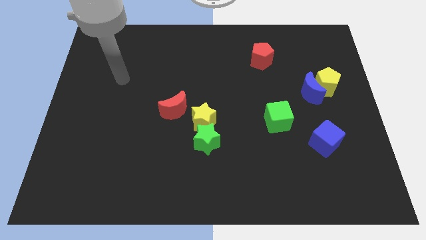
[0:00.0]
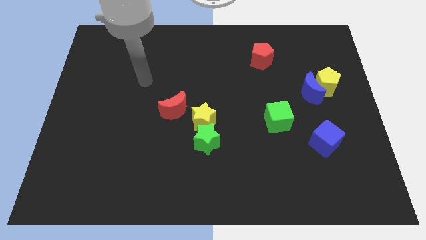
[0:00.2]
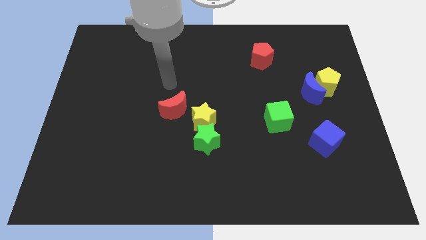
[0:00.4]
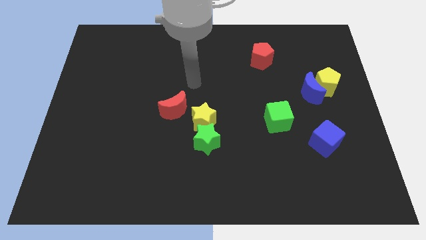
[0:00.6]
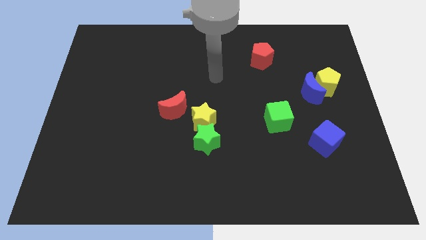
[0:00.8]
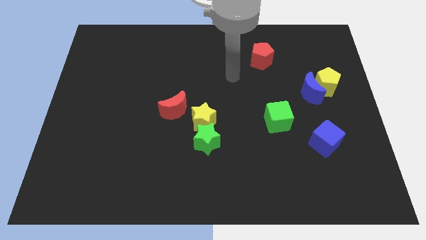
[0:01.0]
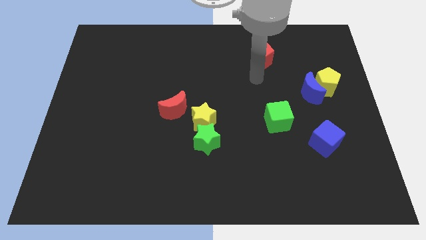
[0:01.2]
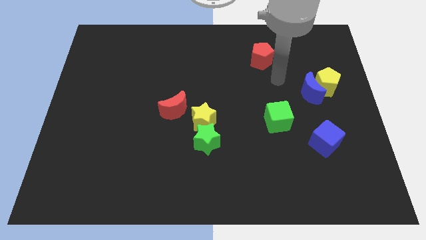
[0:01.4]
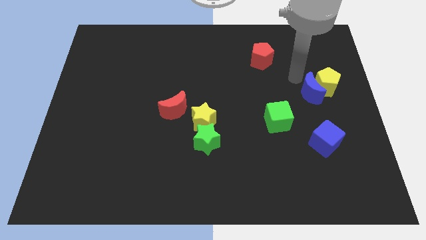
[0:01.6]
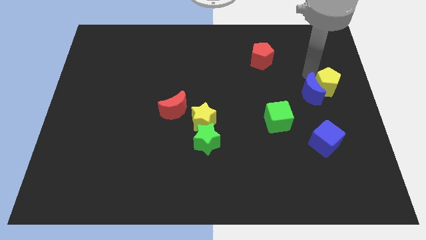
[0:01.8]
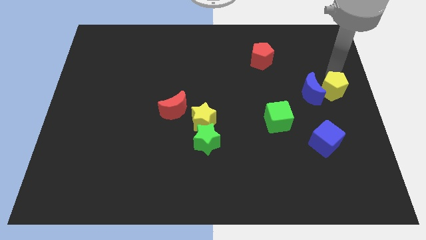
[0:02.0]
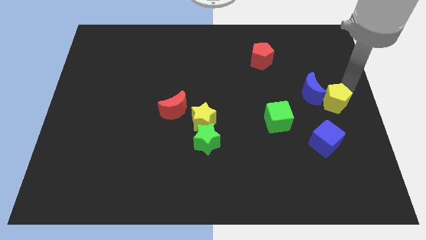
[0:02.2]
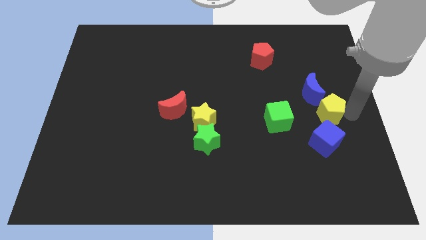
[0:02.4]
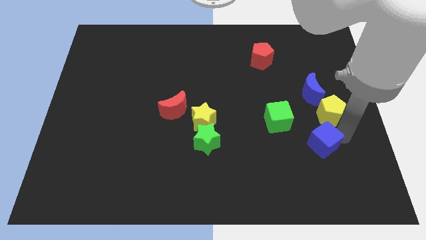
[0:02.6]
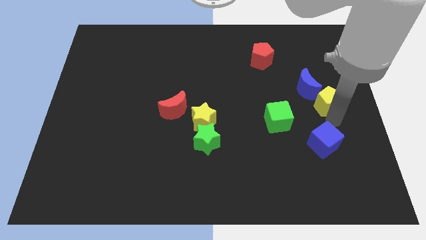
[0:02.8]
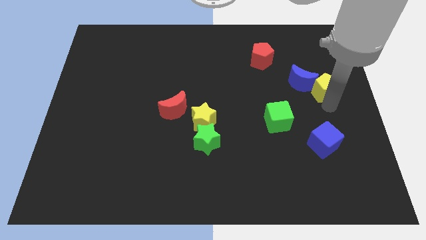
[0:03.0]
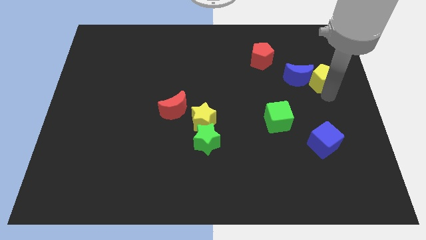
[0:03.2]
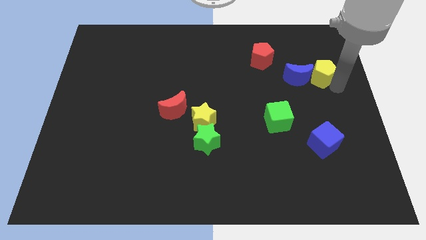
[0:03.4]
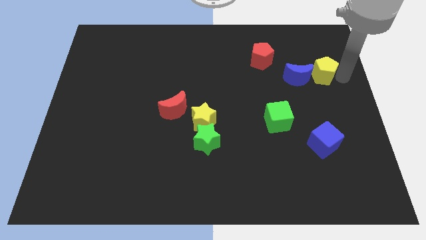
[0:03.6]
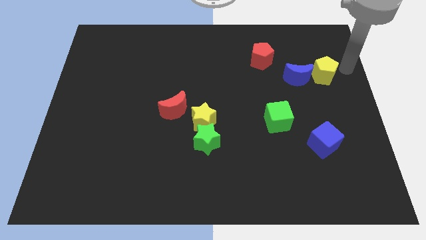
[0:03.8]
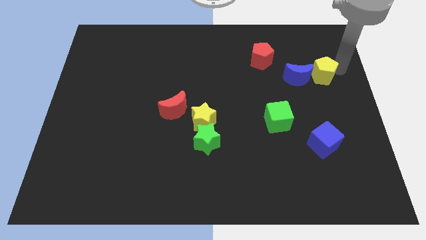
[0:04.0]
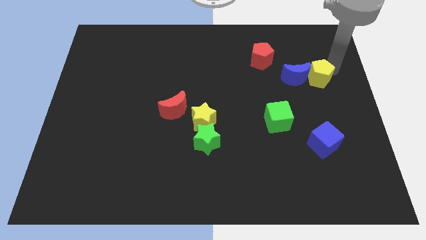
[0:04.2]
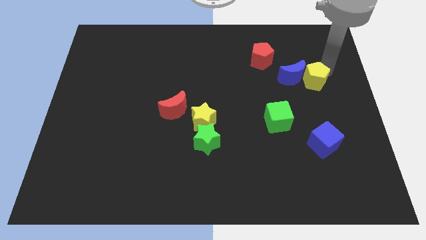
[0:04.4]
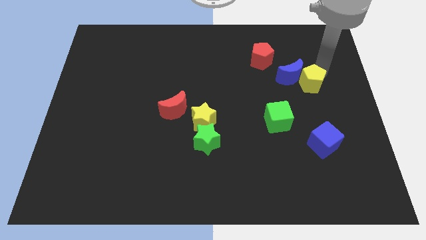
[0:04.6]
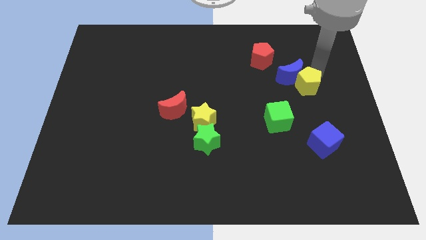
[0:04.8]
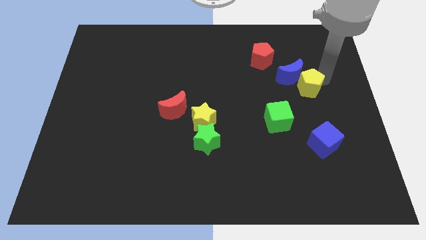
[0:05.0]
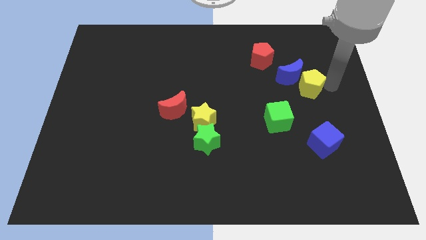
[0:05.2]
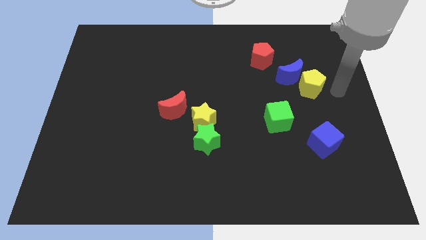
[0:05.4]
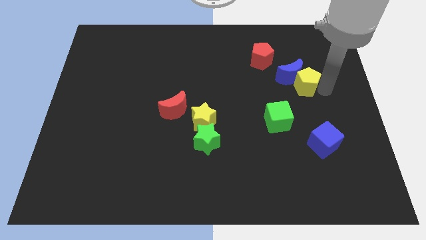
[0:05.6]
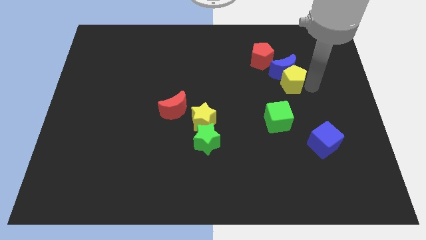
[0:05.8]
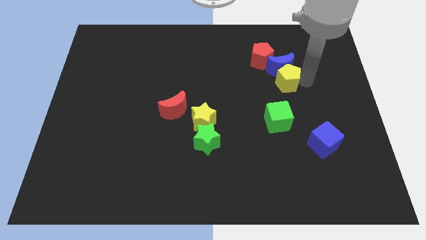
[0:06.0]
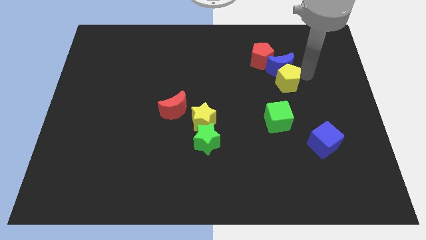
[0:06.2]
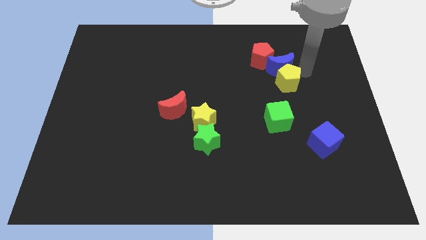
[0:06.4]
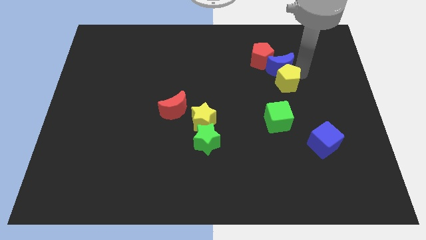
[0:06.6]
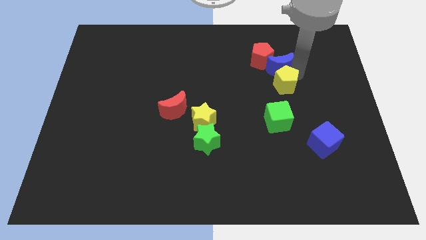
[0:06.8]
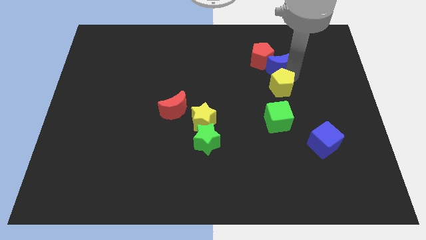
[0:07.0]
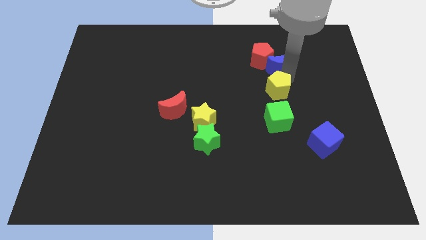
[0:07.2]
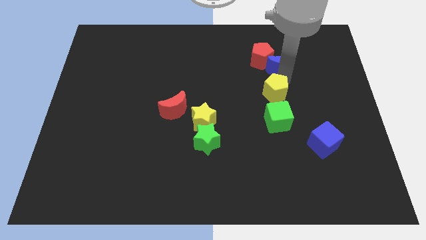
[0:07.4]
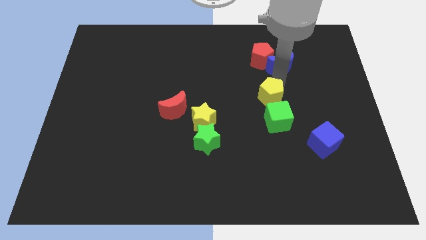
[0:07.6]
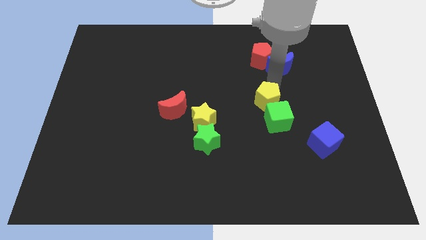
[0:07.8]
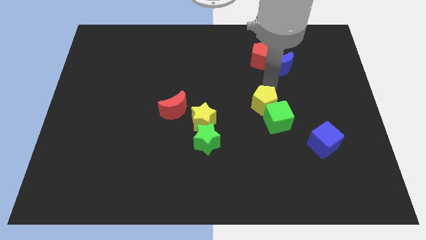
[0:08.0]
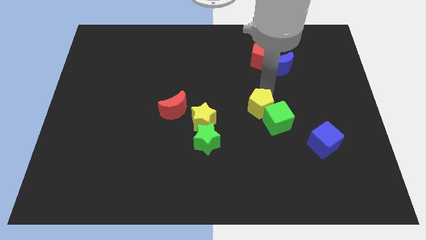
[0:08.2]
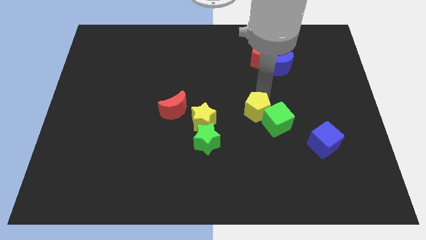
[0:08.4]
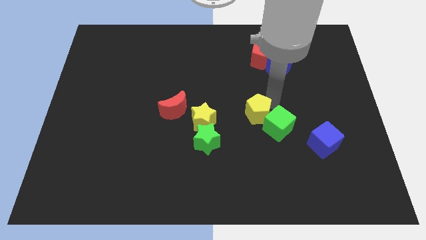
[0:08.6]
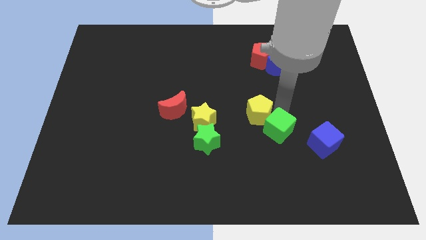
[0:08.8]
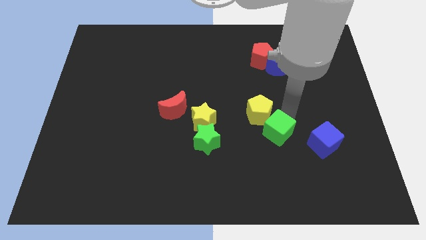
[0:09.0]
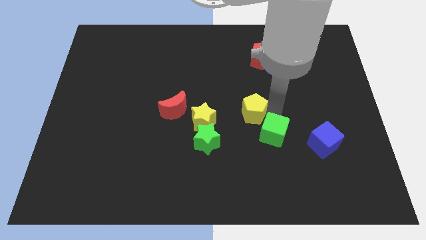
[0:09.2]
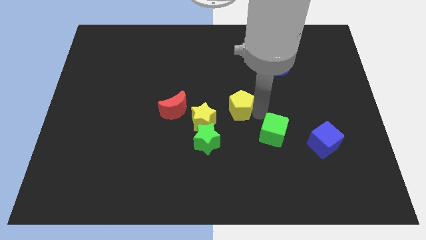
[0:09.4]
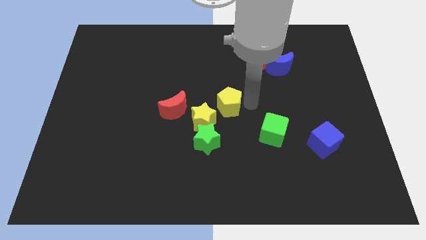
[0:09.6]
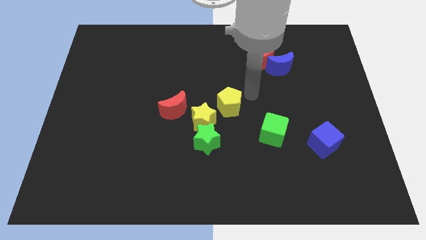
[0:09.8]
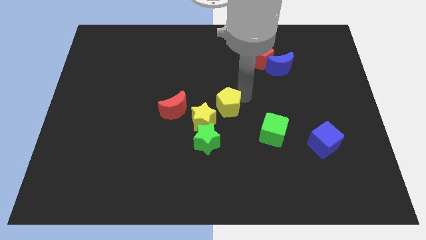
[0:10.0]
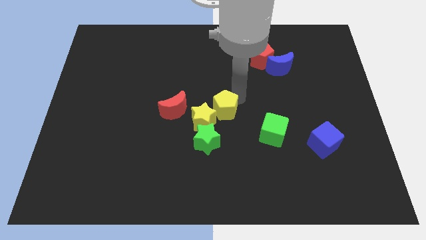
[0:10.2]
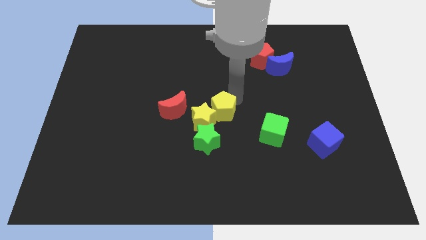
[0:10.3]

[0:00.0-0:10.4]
push the yellow pentagon towards the yellow star

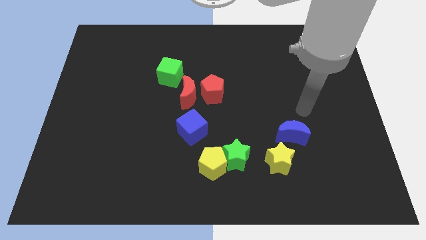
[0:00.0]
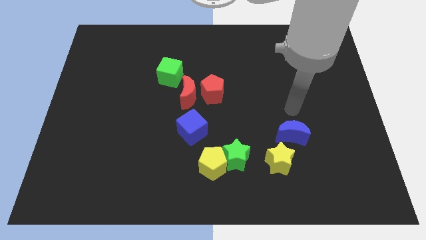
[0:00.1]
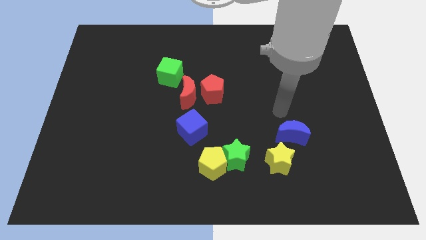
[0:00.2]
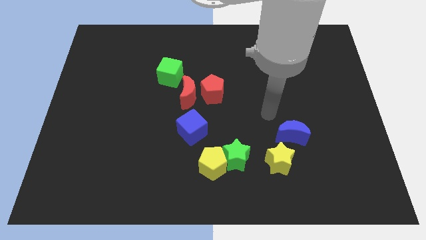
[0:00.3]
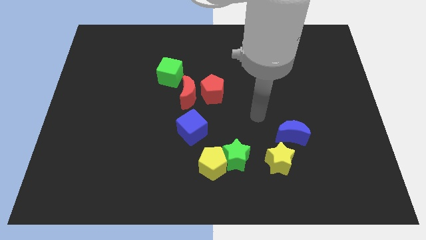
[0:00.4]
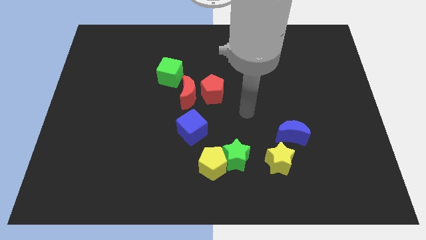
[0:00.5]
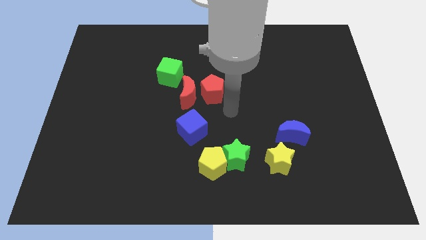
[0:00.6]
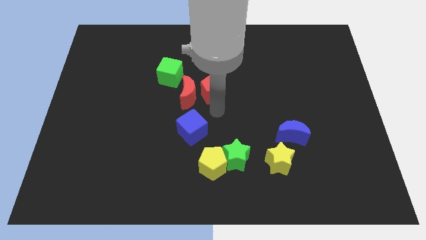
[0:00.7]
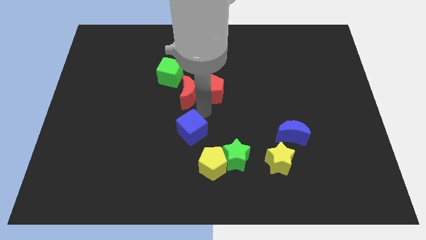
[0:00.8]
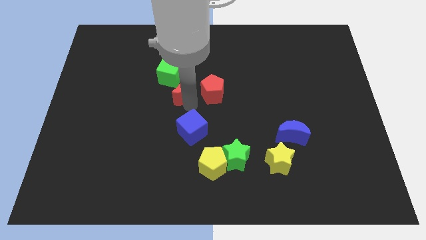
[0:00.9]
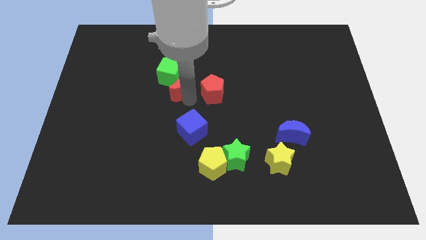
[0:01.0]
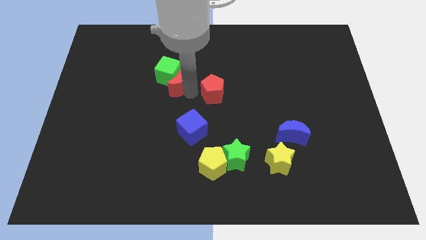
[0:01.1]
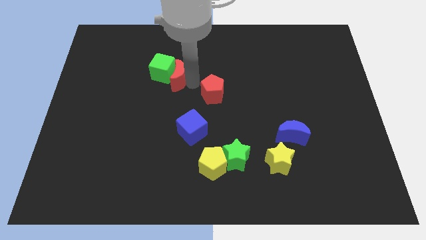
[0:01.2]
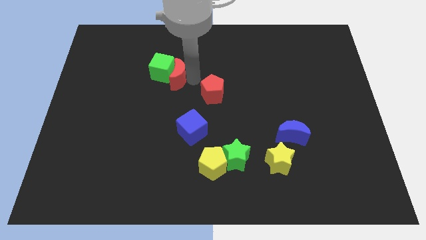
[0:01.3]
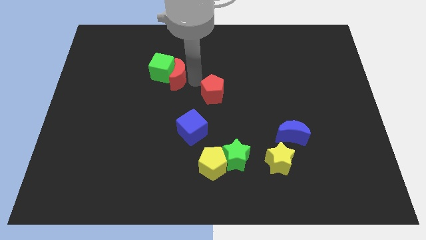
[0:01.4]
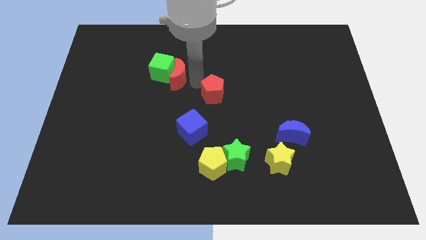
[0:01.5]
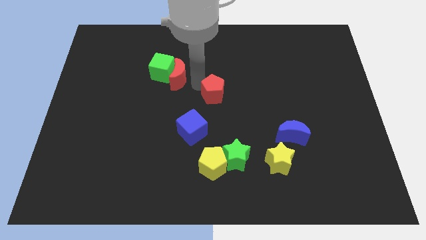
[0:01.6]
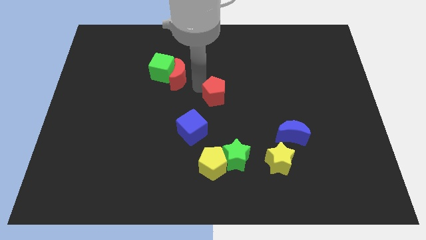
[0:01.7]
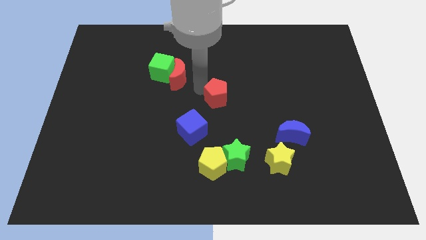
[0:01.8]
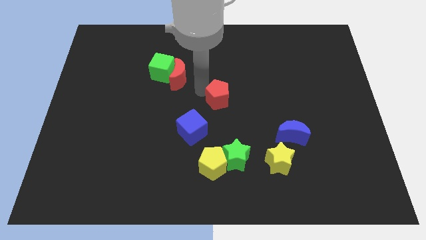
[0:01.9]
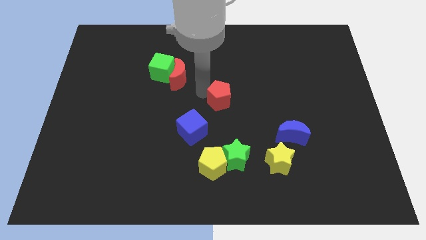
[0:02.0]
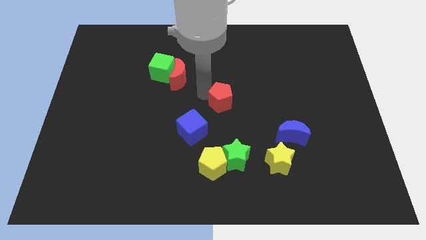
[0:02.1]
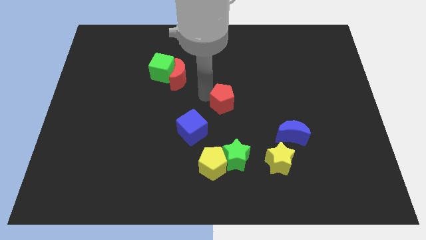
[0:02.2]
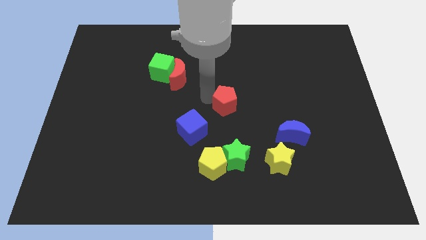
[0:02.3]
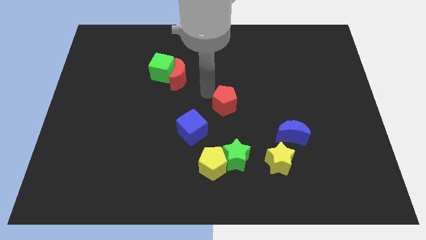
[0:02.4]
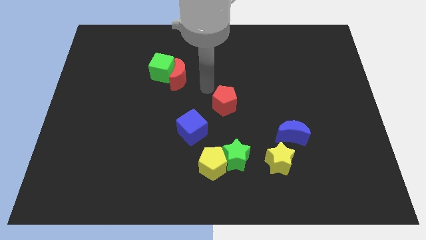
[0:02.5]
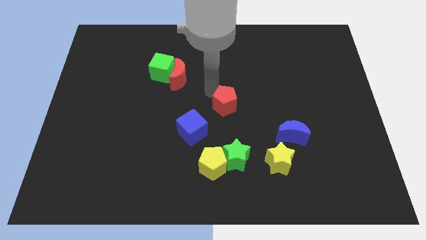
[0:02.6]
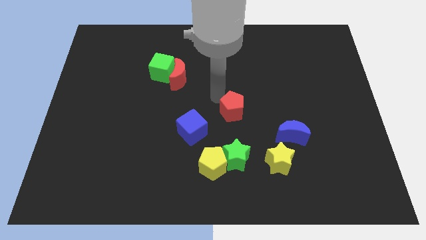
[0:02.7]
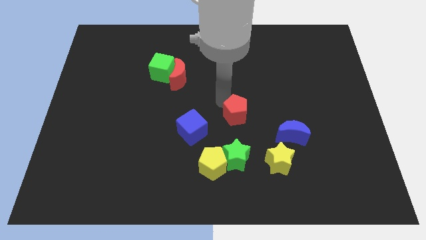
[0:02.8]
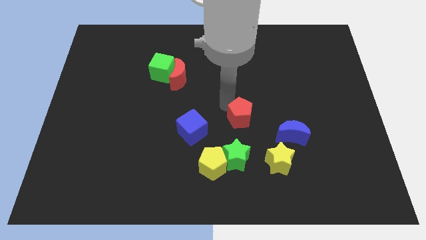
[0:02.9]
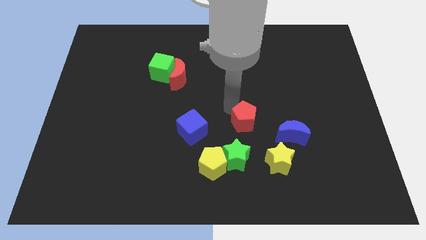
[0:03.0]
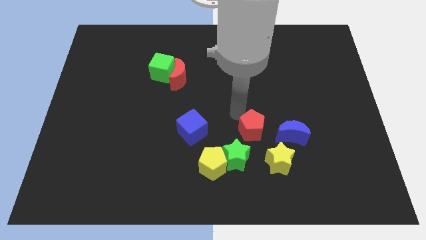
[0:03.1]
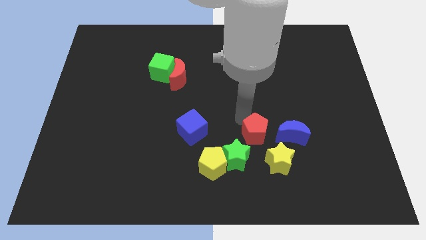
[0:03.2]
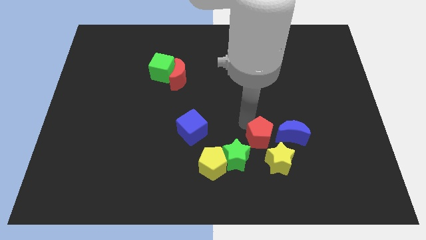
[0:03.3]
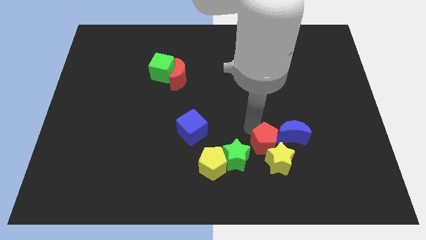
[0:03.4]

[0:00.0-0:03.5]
move the red pentagon next to the yellow star
